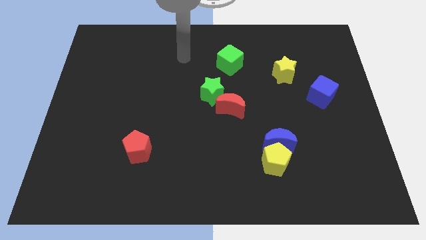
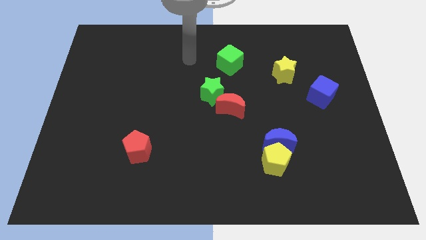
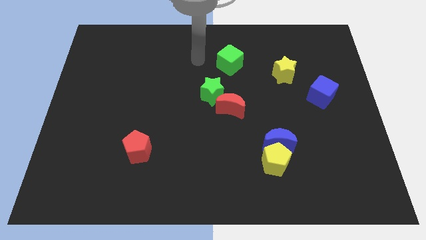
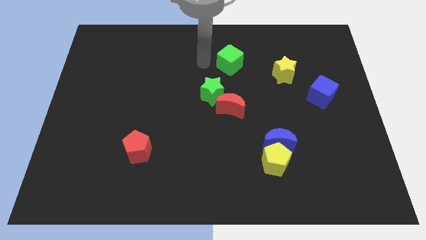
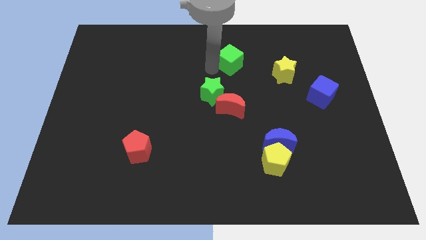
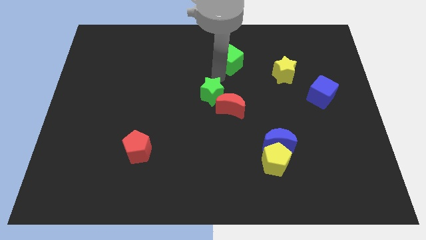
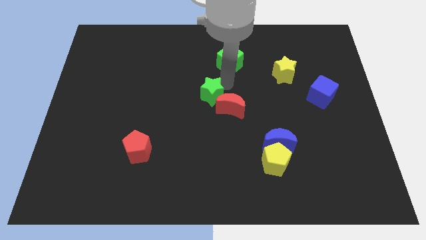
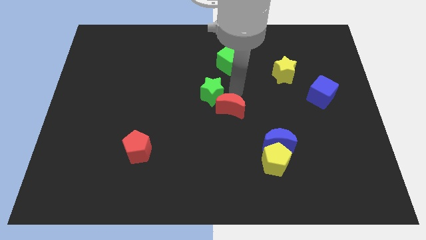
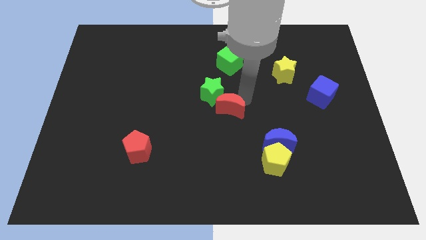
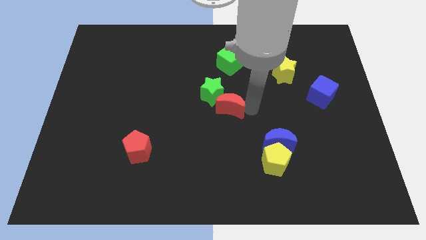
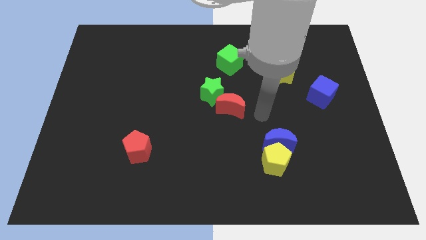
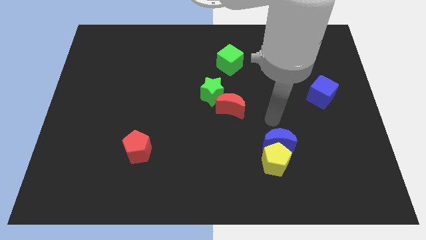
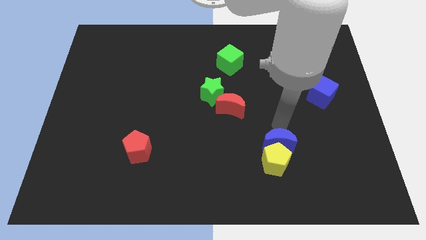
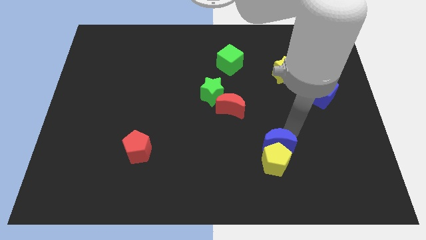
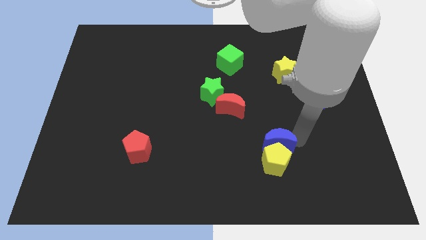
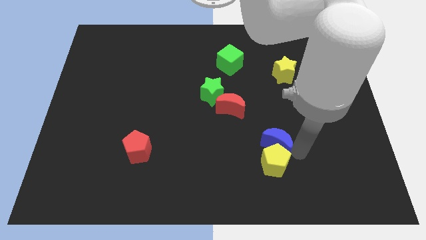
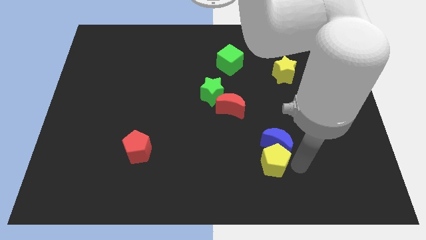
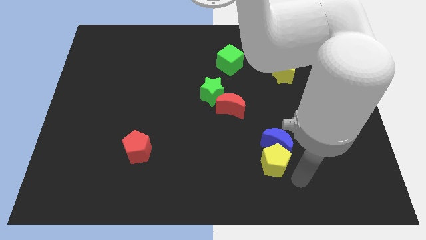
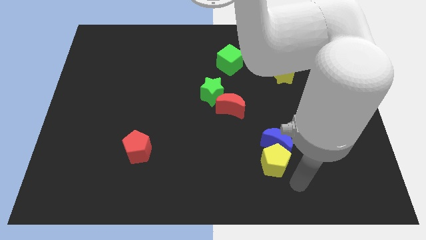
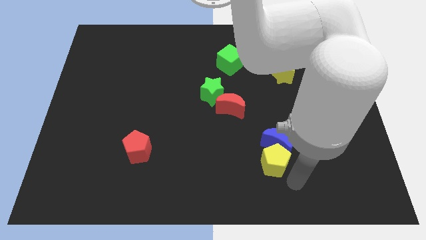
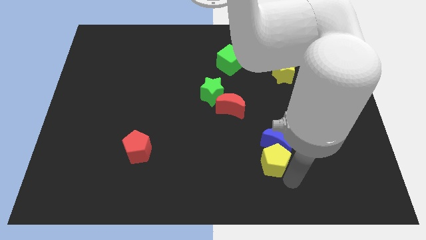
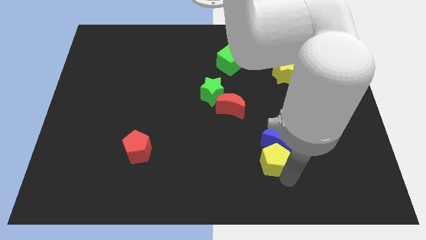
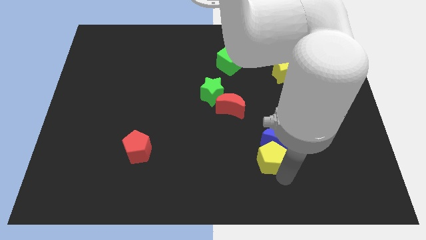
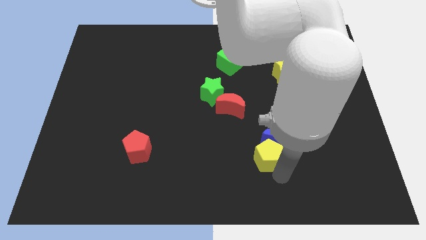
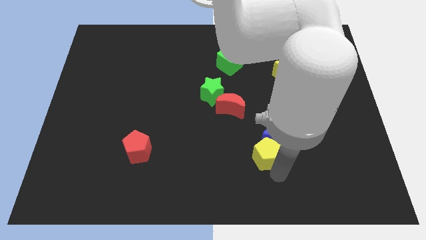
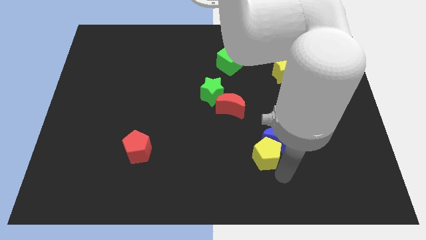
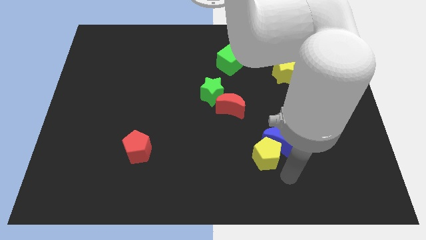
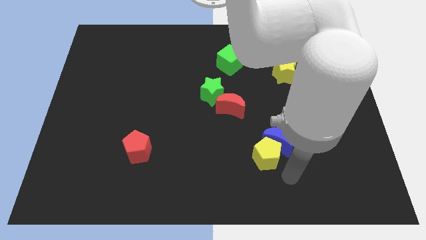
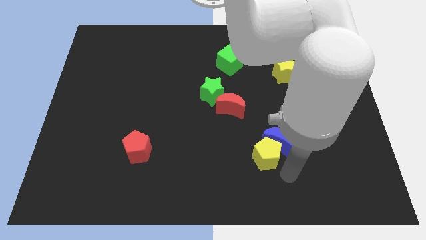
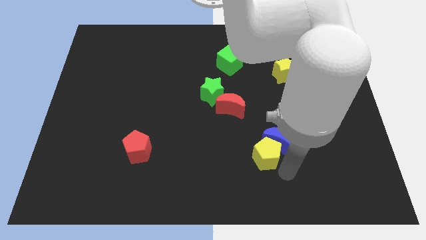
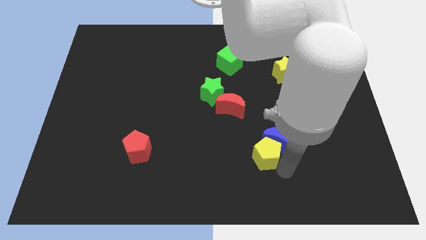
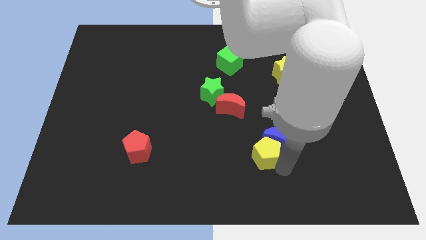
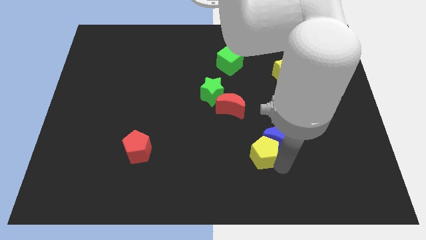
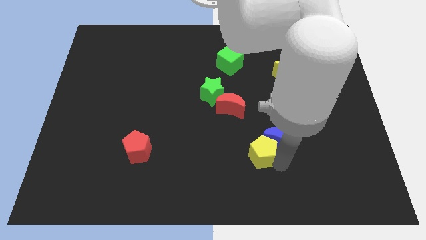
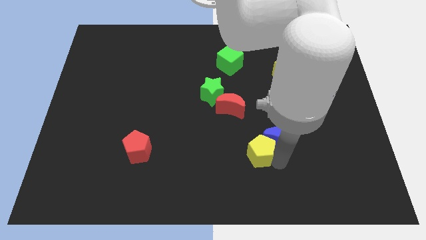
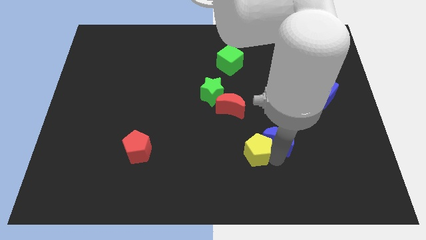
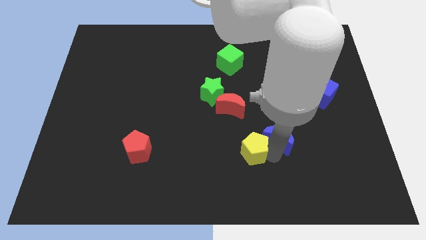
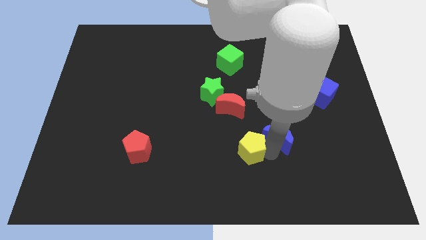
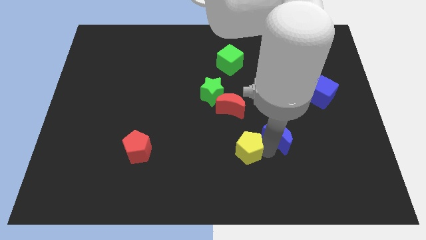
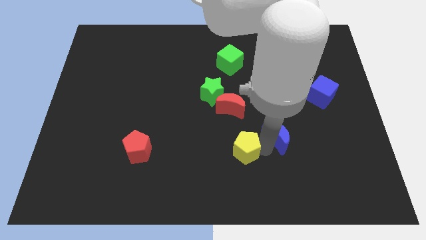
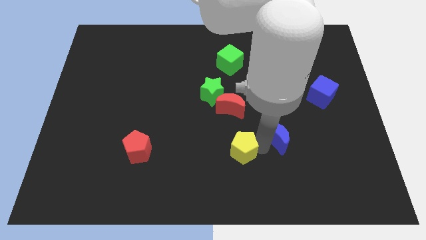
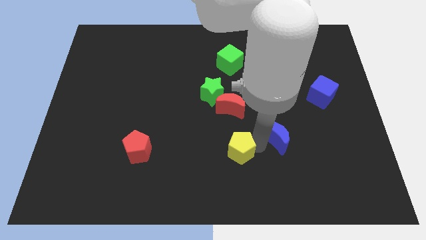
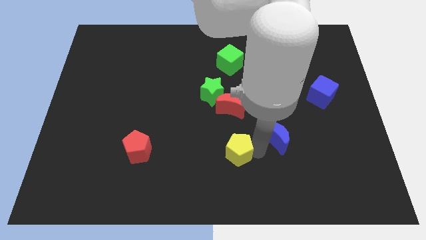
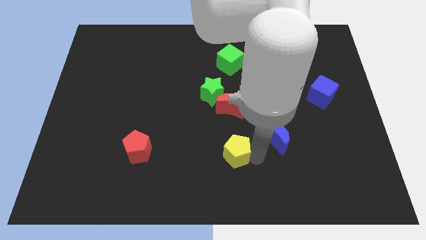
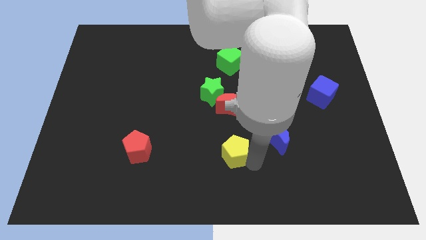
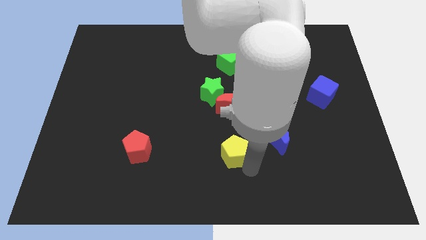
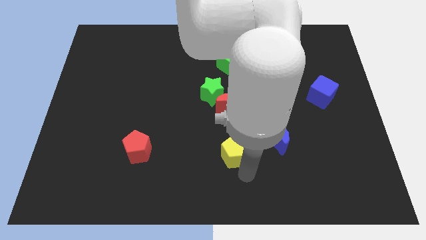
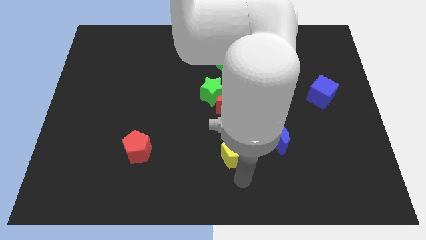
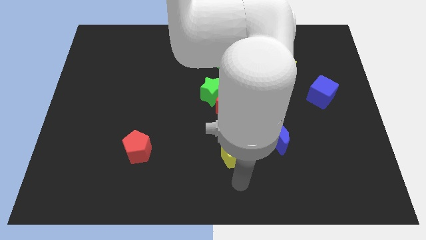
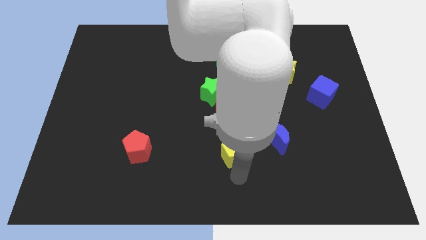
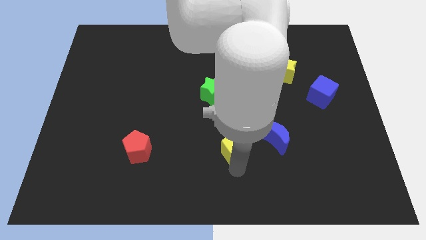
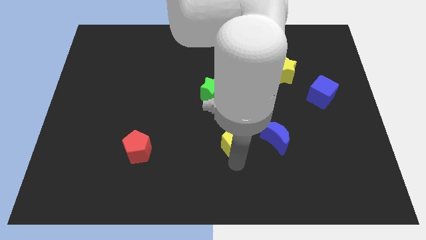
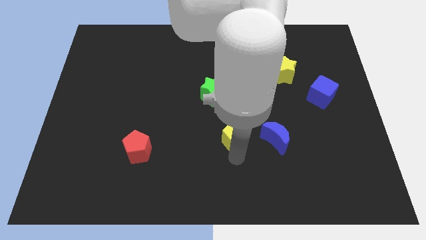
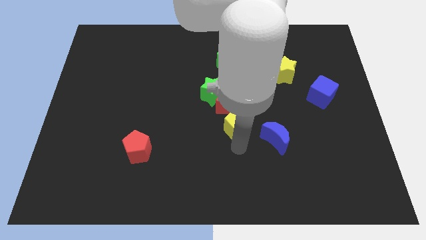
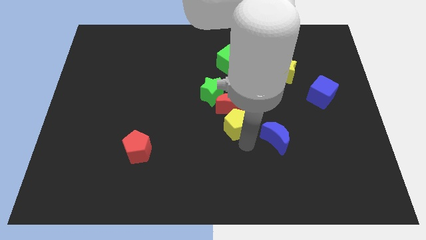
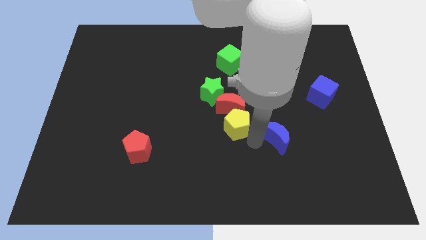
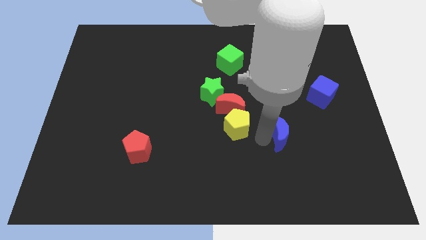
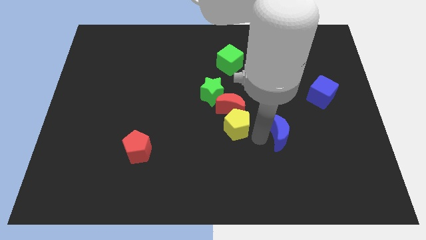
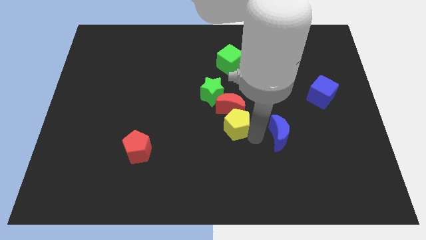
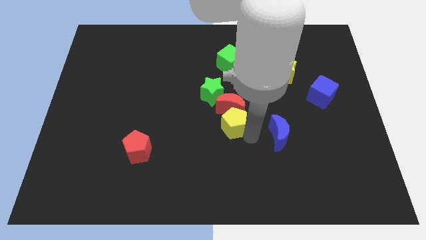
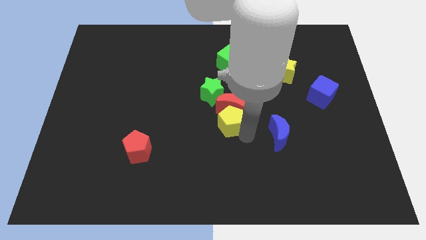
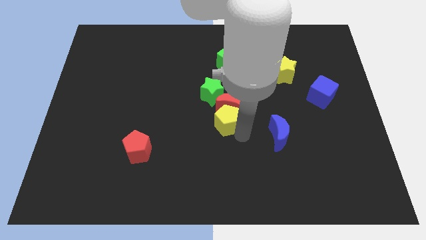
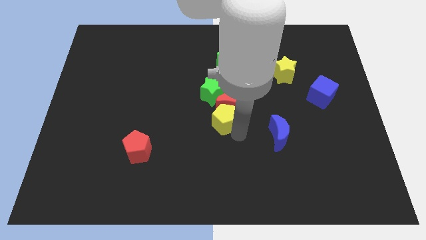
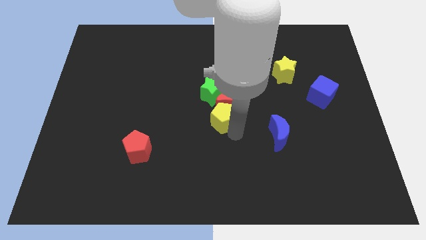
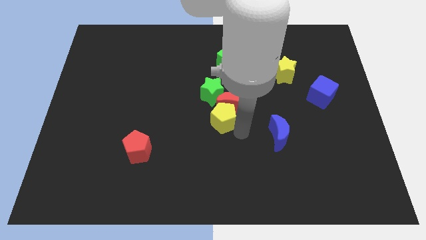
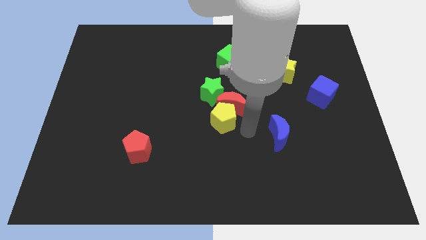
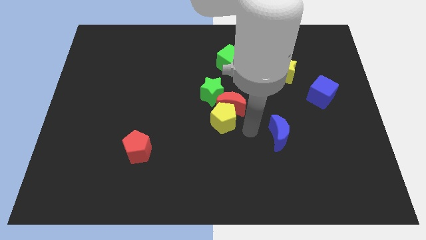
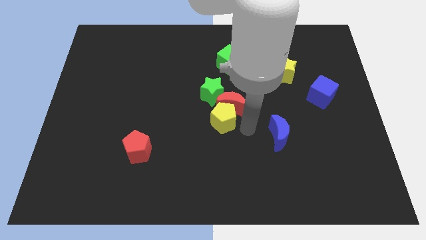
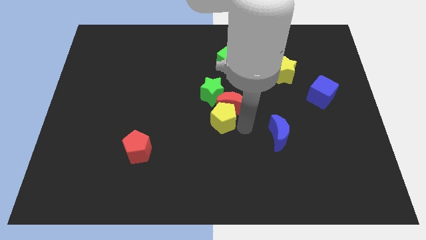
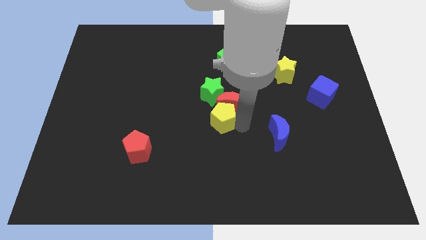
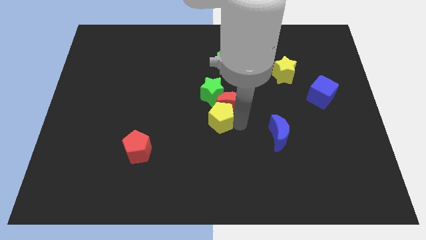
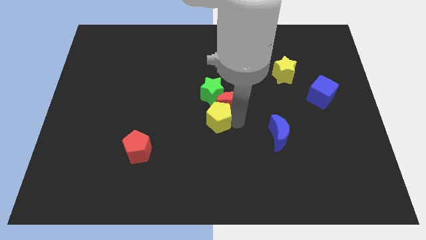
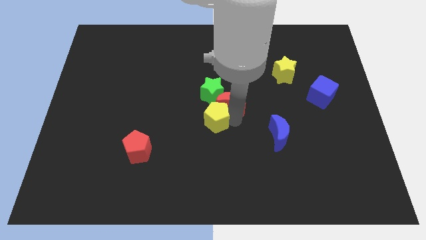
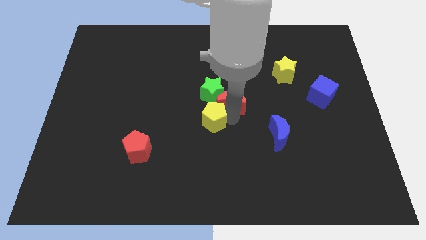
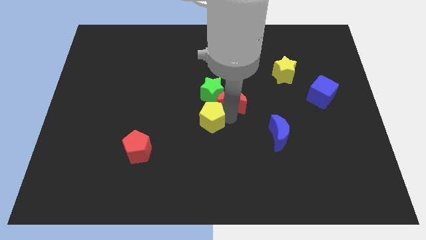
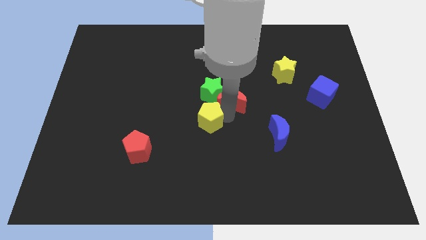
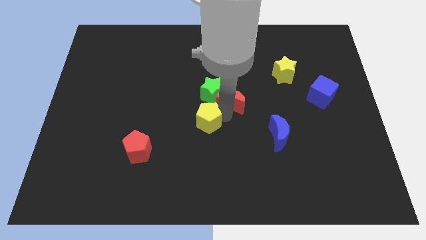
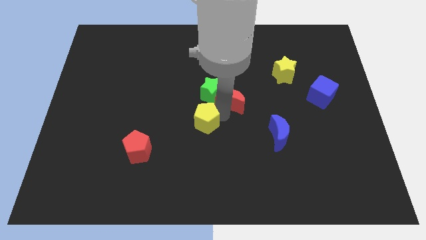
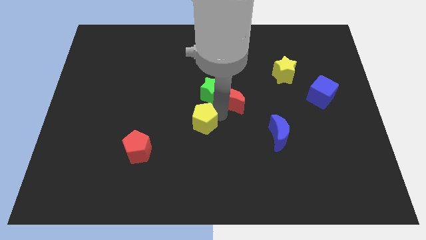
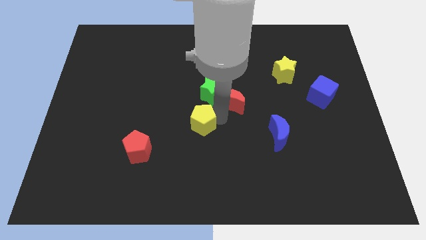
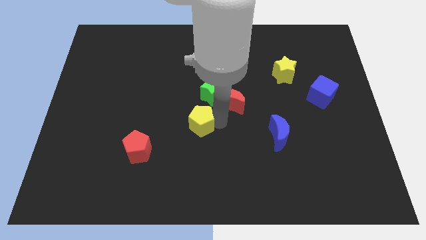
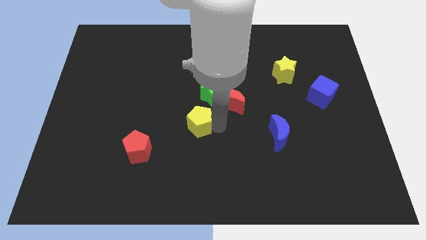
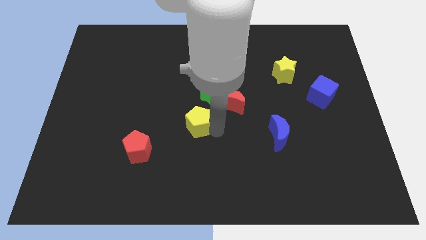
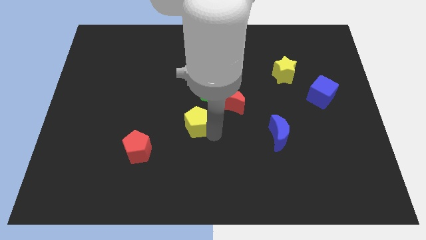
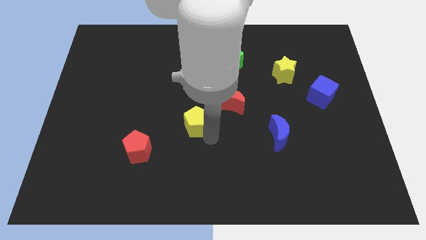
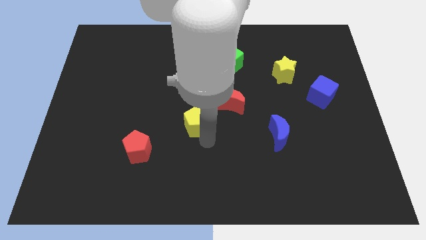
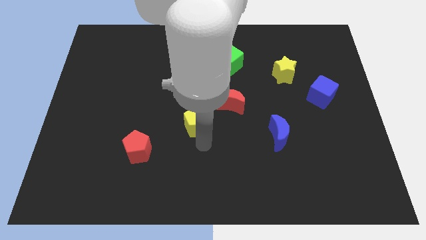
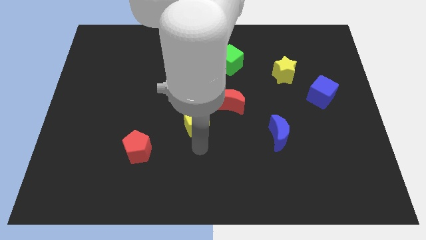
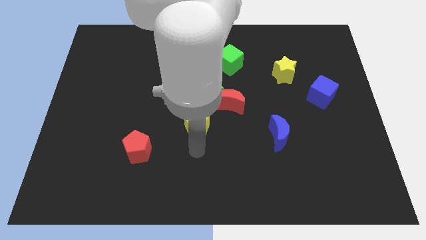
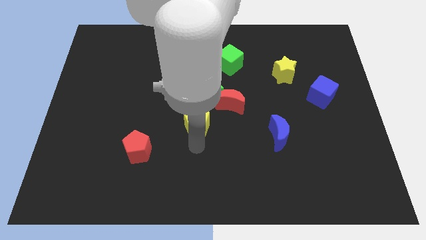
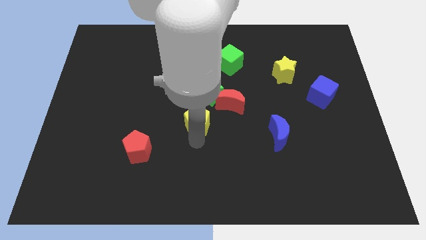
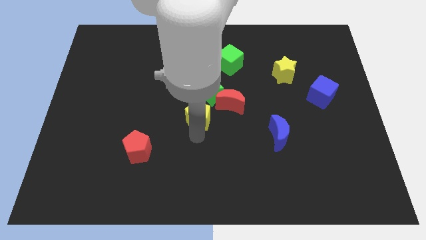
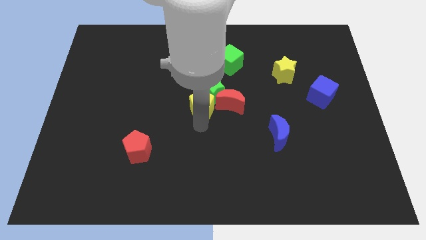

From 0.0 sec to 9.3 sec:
push the yellow pentagon up and left
